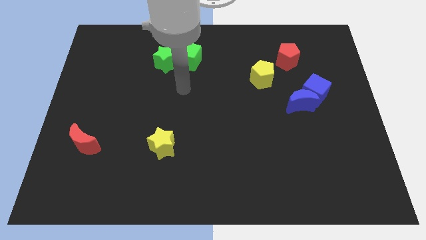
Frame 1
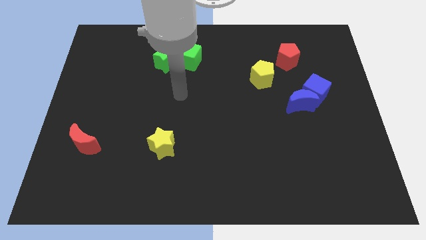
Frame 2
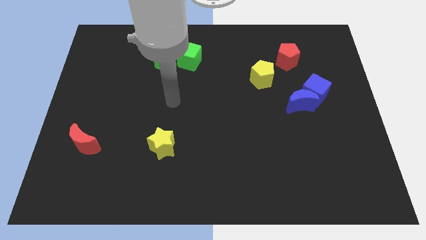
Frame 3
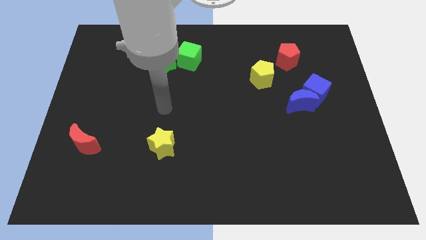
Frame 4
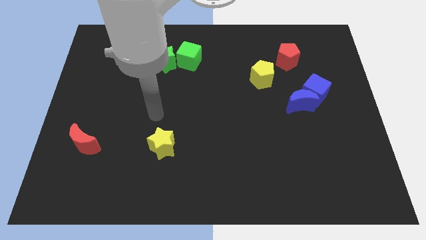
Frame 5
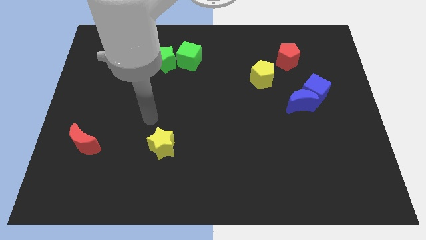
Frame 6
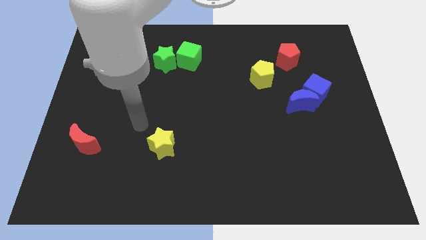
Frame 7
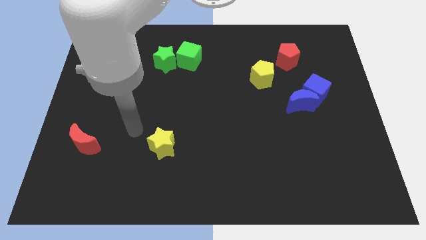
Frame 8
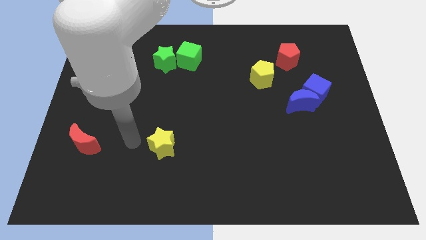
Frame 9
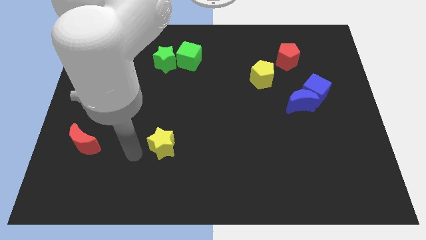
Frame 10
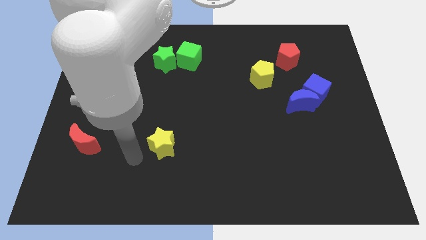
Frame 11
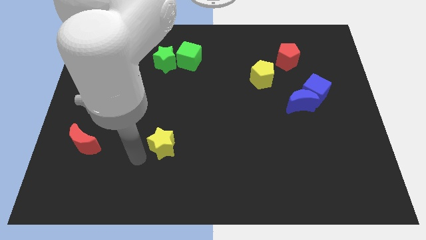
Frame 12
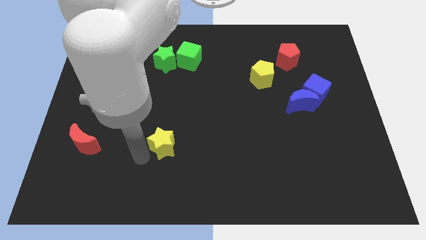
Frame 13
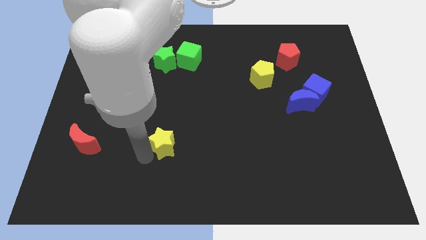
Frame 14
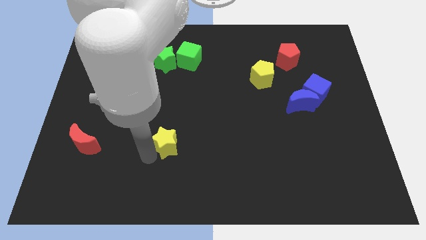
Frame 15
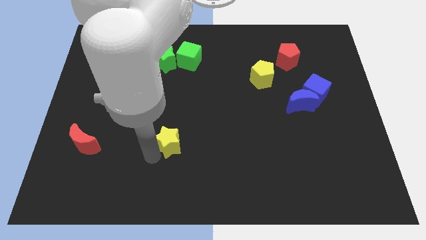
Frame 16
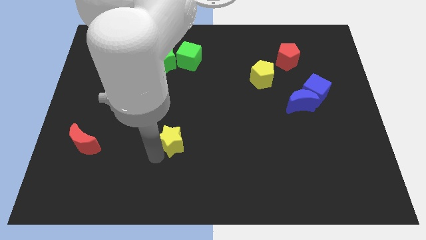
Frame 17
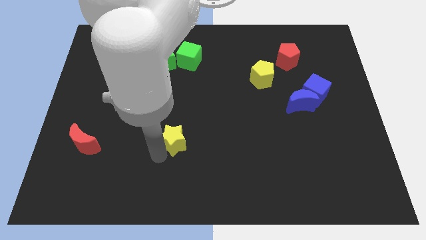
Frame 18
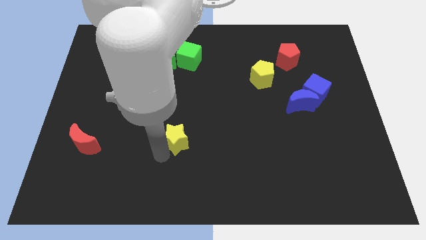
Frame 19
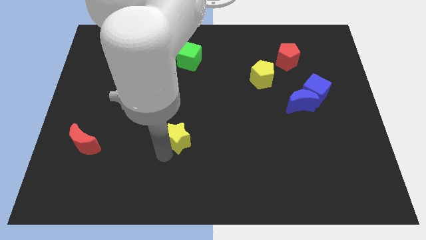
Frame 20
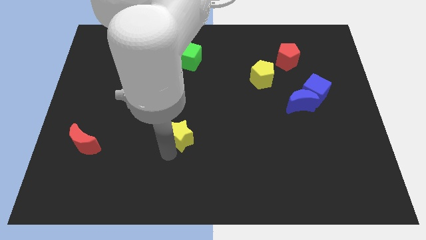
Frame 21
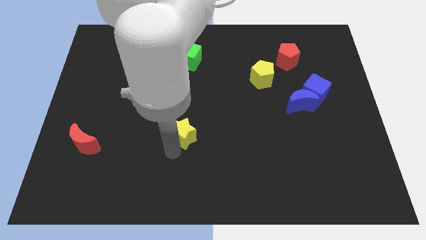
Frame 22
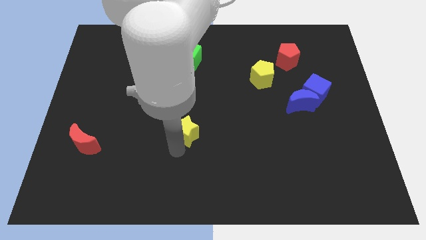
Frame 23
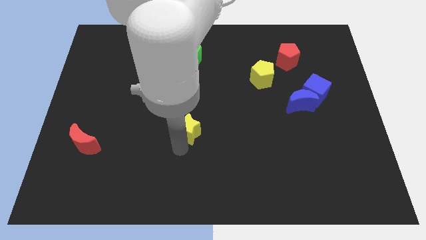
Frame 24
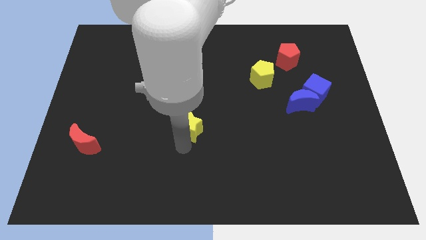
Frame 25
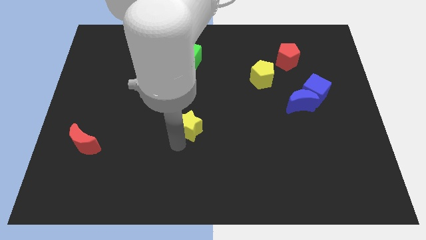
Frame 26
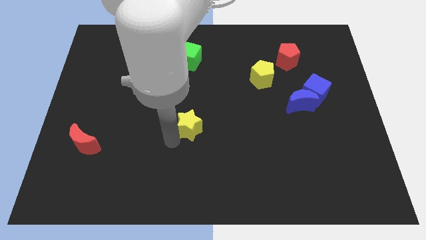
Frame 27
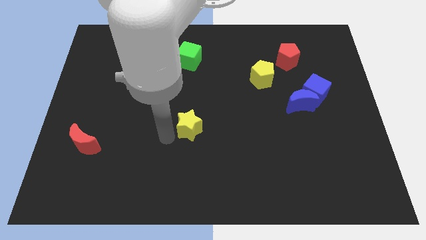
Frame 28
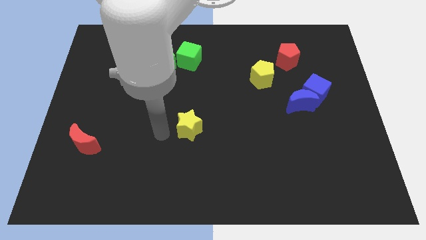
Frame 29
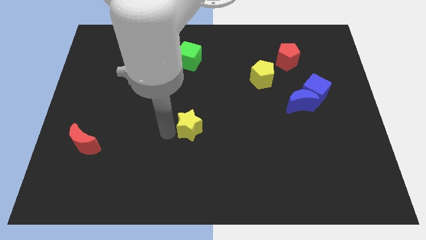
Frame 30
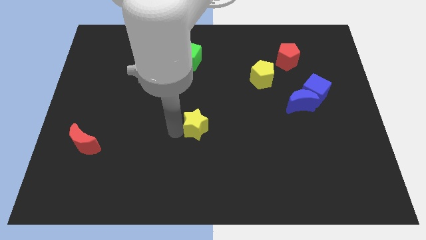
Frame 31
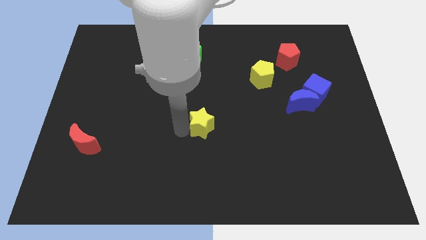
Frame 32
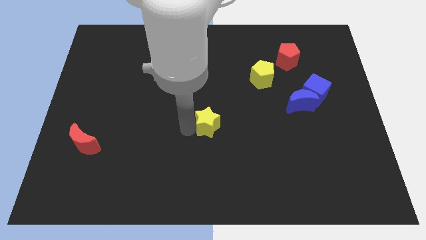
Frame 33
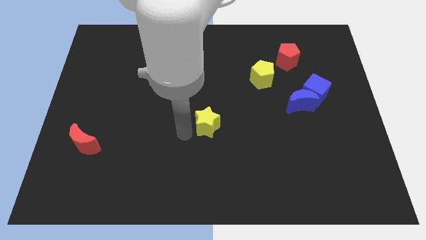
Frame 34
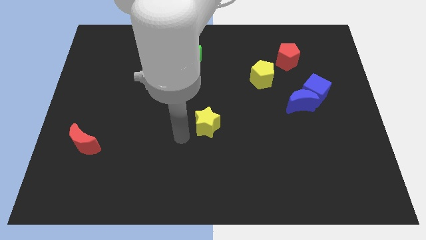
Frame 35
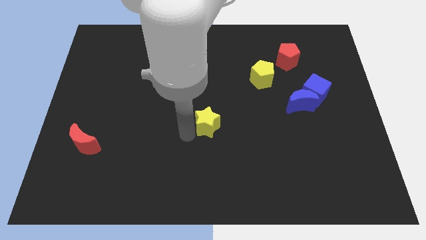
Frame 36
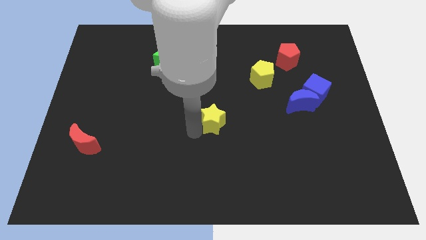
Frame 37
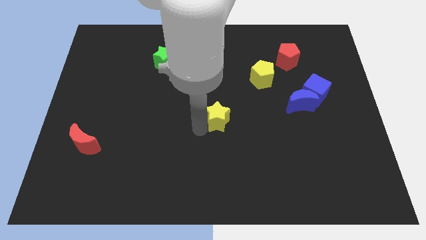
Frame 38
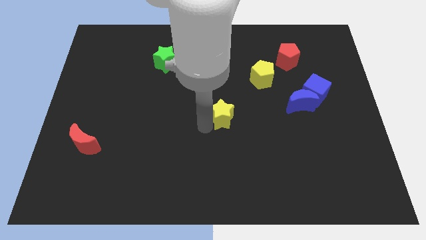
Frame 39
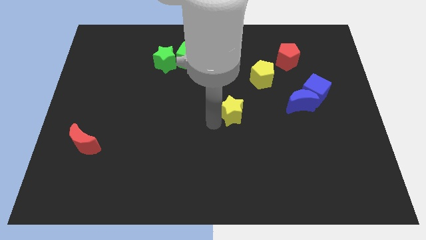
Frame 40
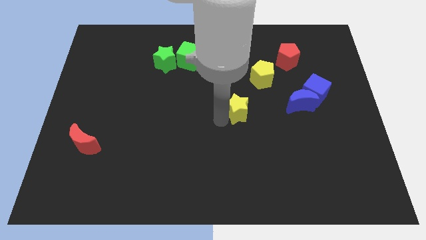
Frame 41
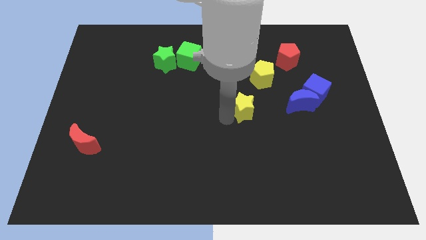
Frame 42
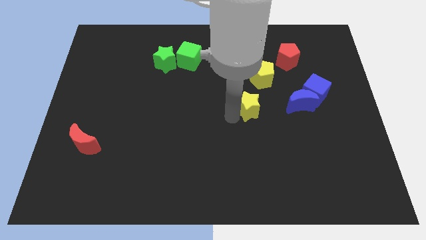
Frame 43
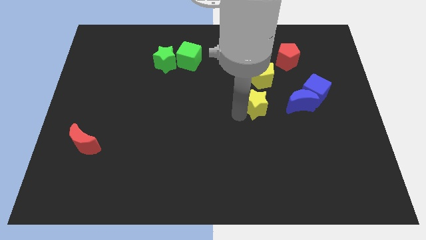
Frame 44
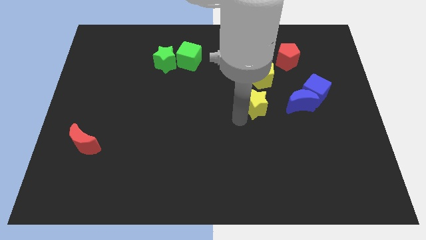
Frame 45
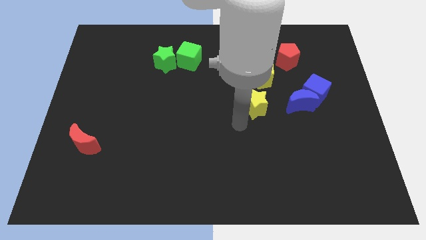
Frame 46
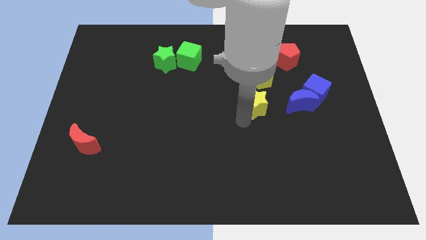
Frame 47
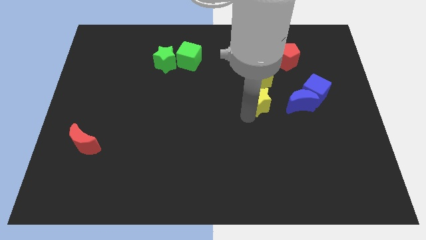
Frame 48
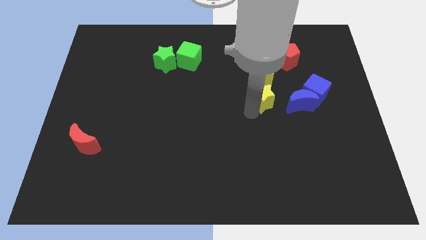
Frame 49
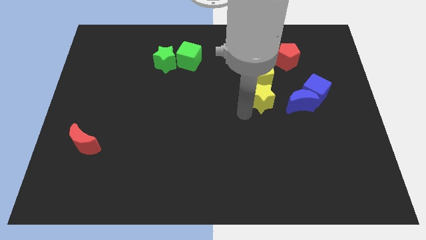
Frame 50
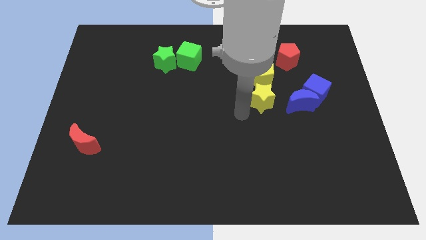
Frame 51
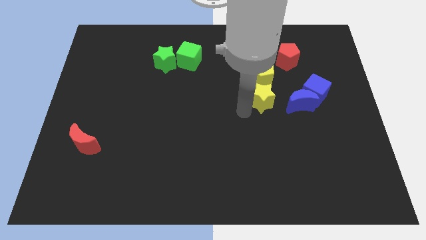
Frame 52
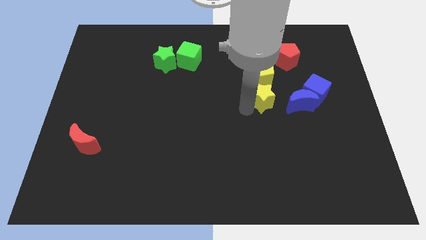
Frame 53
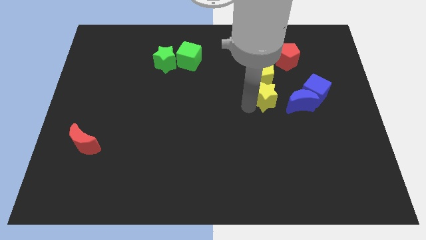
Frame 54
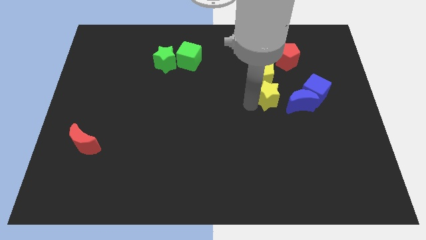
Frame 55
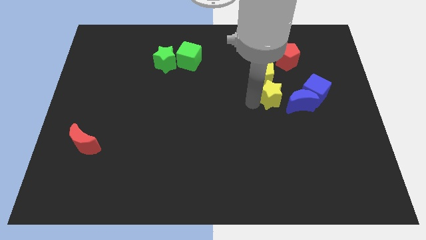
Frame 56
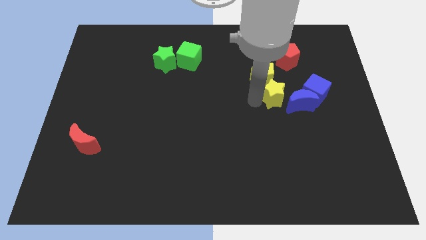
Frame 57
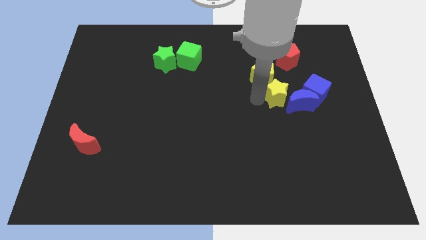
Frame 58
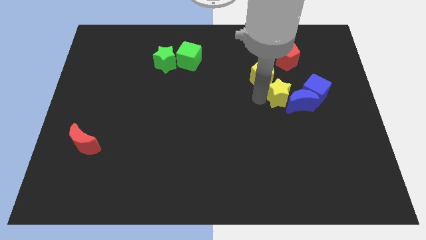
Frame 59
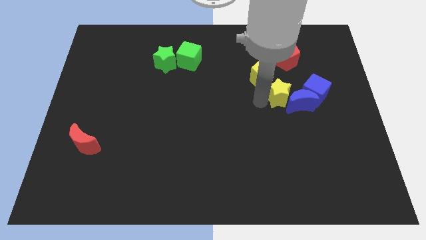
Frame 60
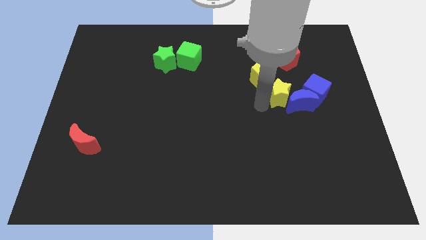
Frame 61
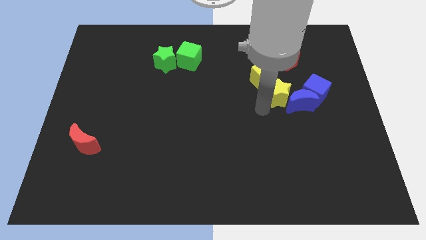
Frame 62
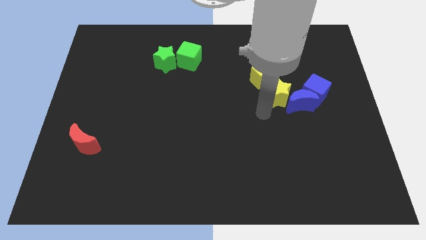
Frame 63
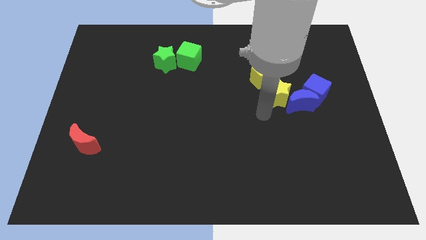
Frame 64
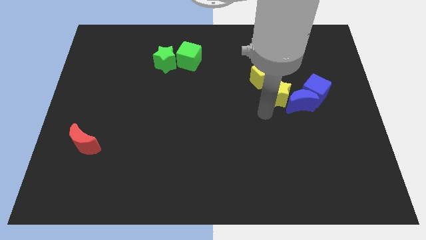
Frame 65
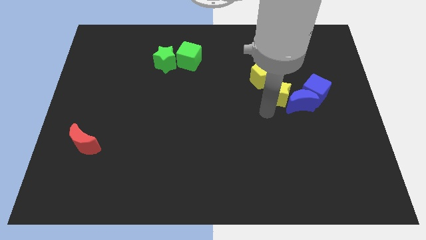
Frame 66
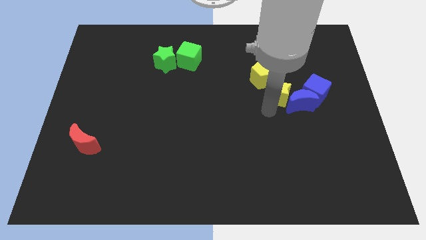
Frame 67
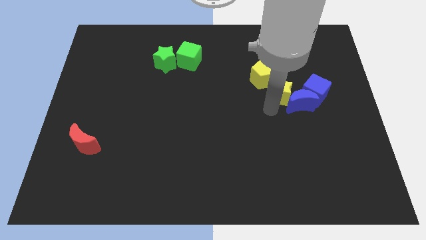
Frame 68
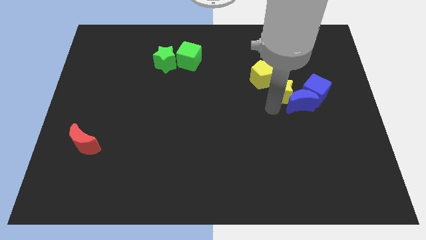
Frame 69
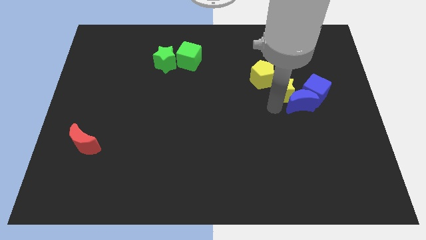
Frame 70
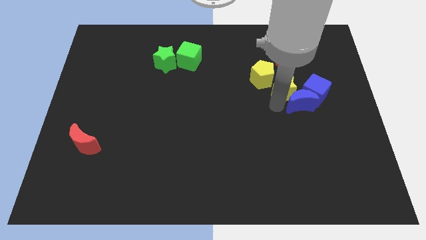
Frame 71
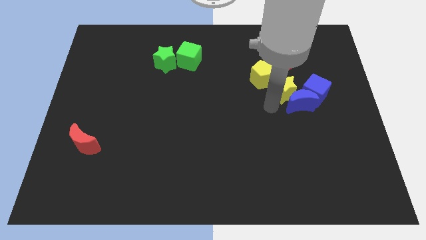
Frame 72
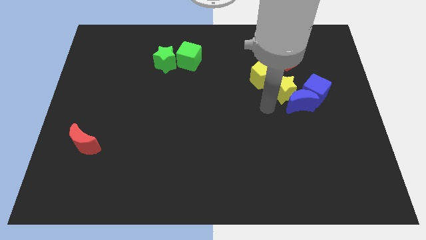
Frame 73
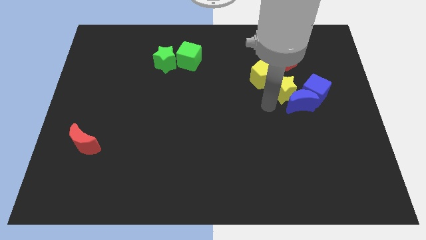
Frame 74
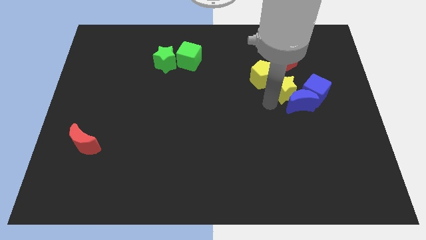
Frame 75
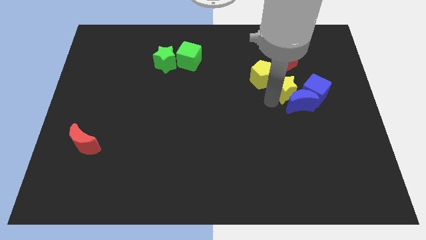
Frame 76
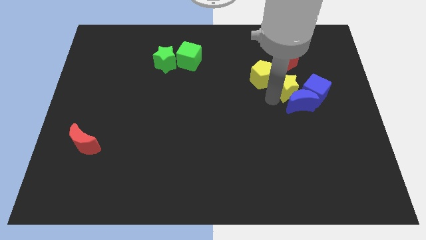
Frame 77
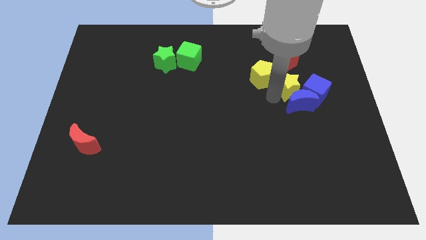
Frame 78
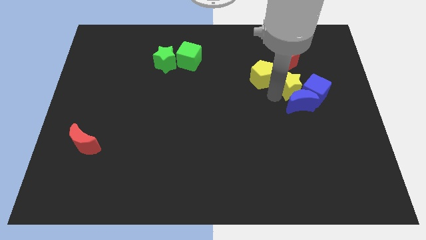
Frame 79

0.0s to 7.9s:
put the yellow star diagonally up and to the right of the blue moon
